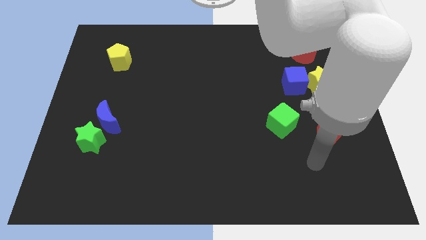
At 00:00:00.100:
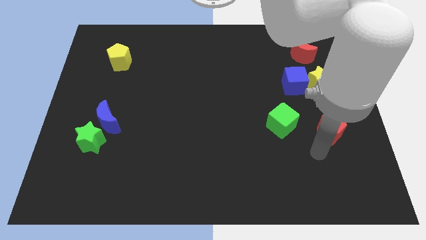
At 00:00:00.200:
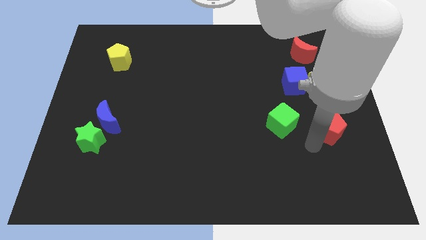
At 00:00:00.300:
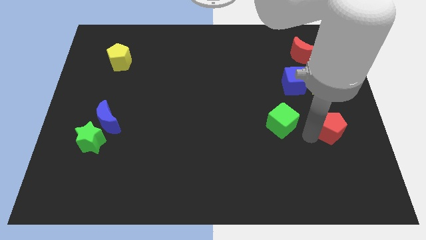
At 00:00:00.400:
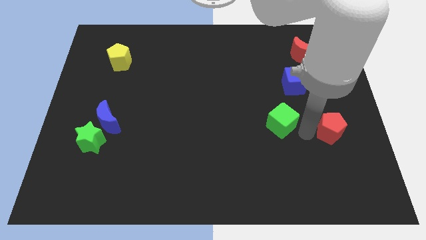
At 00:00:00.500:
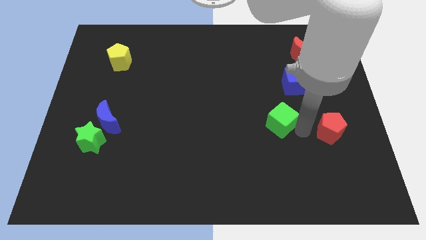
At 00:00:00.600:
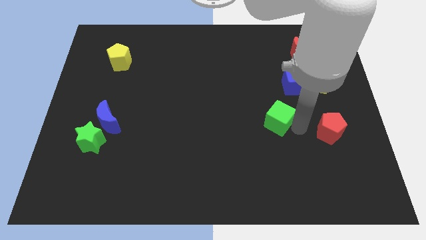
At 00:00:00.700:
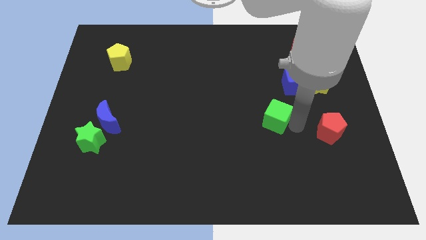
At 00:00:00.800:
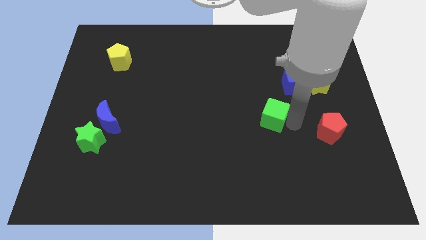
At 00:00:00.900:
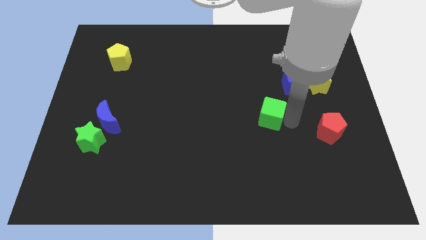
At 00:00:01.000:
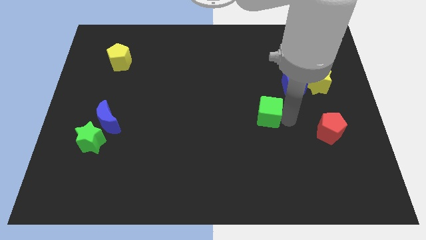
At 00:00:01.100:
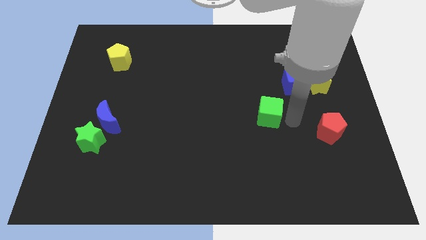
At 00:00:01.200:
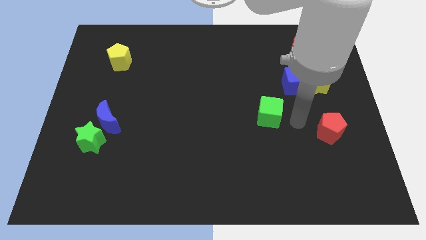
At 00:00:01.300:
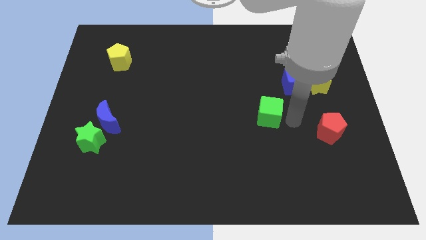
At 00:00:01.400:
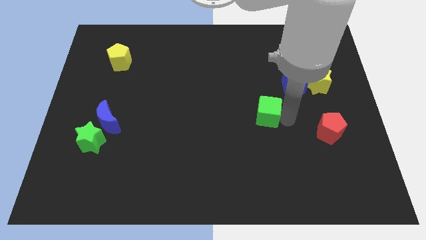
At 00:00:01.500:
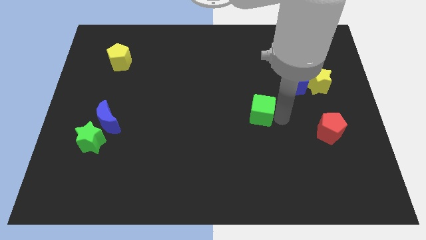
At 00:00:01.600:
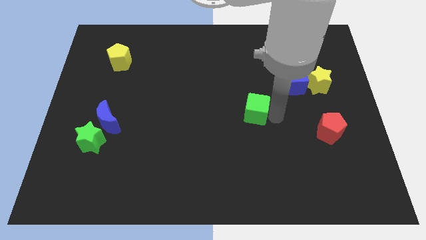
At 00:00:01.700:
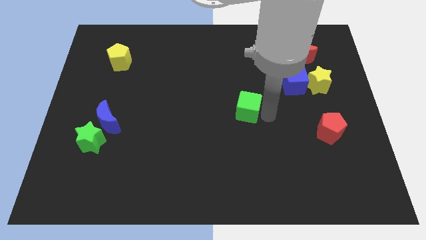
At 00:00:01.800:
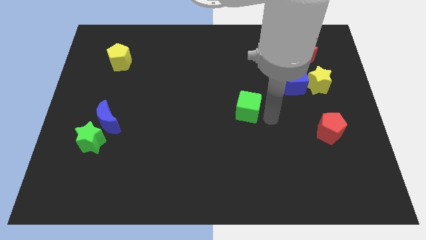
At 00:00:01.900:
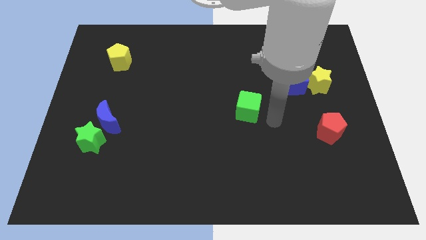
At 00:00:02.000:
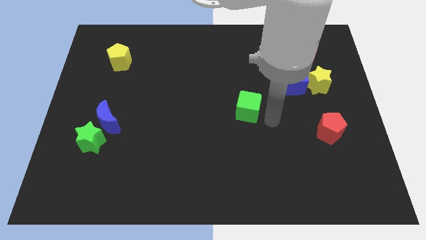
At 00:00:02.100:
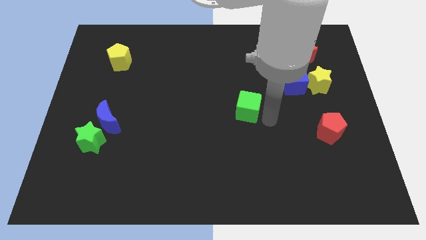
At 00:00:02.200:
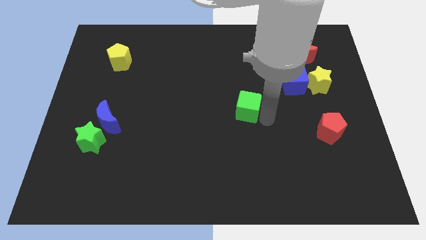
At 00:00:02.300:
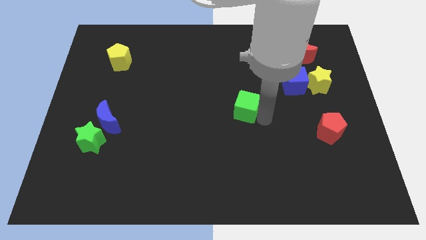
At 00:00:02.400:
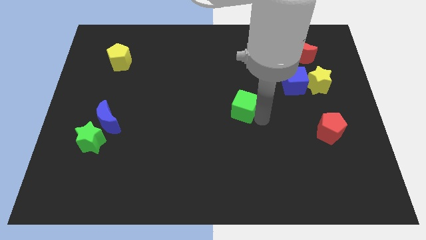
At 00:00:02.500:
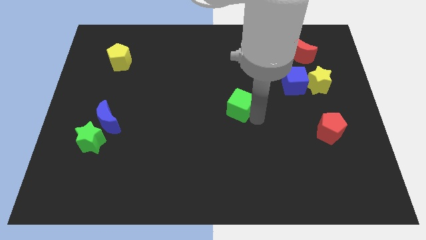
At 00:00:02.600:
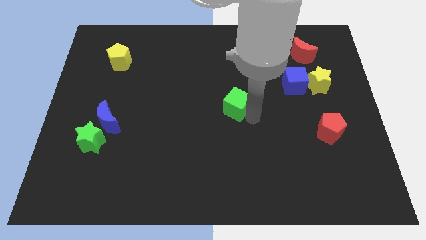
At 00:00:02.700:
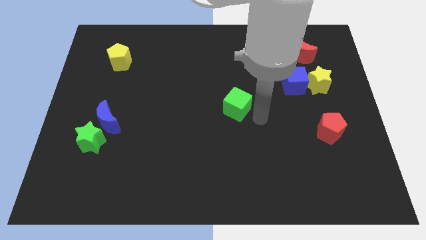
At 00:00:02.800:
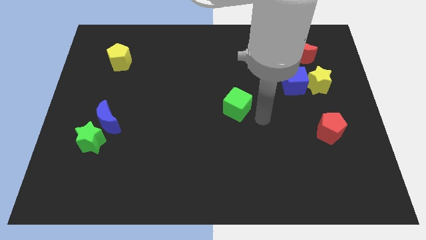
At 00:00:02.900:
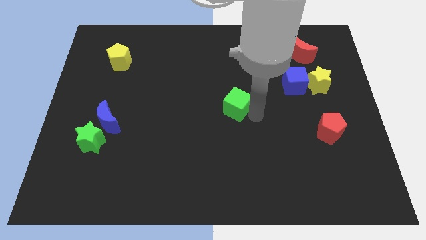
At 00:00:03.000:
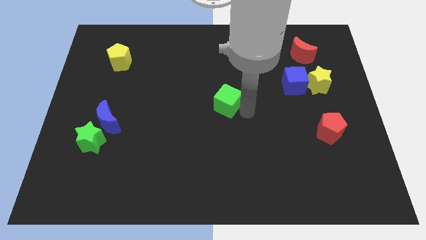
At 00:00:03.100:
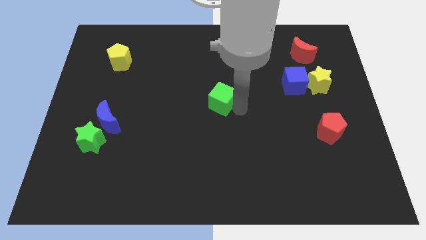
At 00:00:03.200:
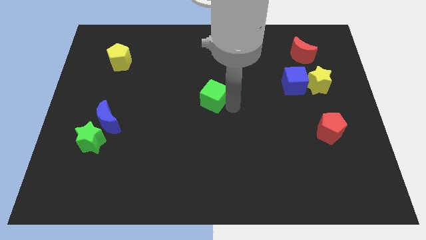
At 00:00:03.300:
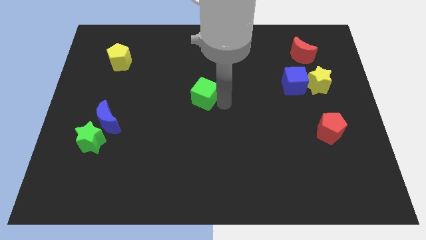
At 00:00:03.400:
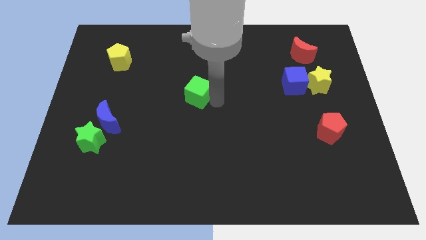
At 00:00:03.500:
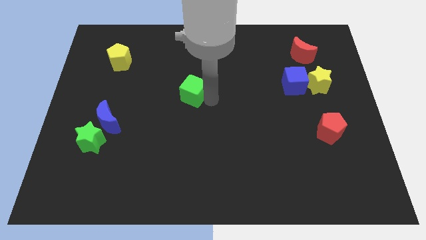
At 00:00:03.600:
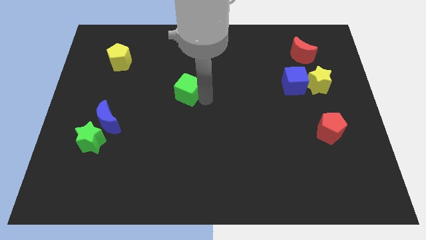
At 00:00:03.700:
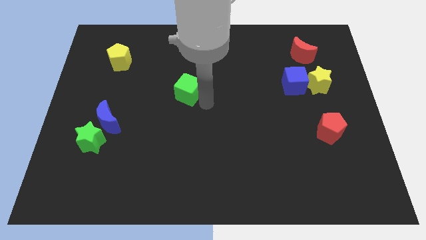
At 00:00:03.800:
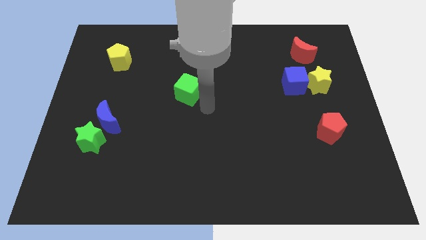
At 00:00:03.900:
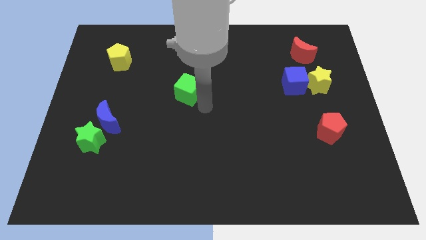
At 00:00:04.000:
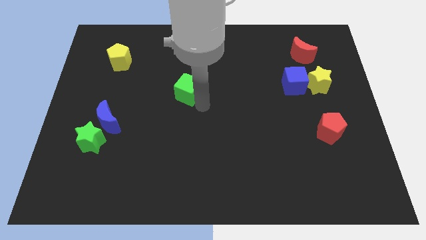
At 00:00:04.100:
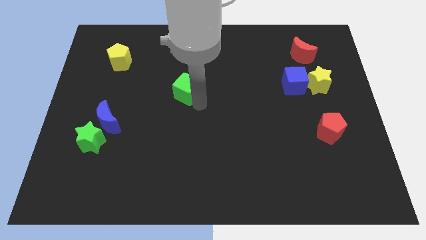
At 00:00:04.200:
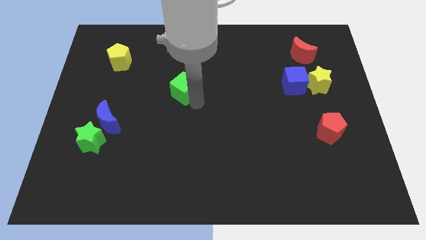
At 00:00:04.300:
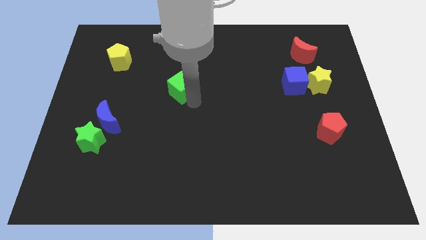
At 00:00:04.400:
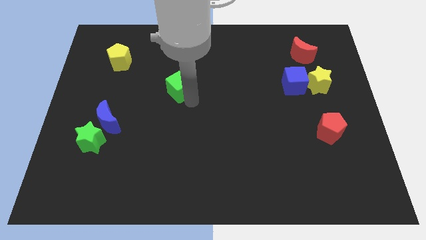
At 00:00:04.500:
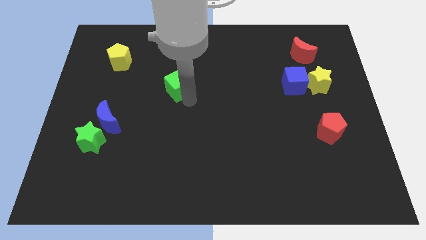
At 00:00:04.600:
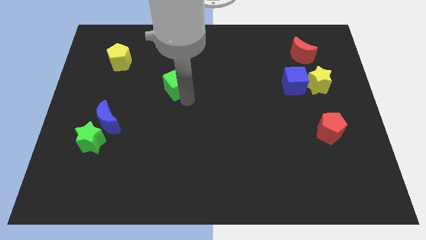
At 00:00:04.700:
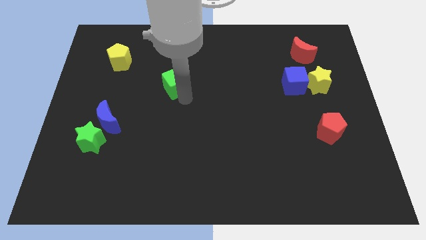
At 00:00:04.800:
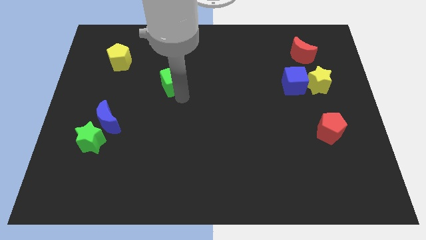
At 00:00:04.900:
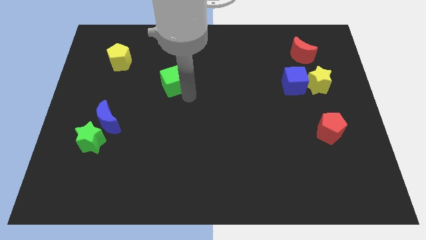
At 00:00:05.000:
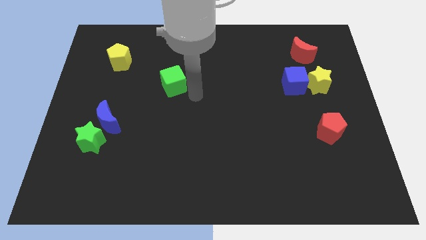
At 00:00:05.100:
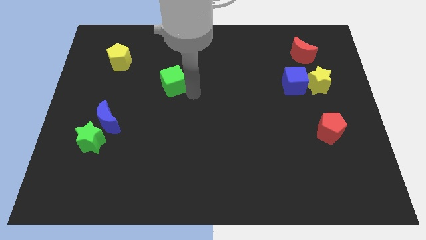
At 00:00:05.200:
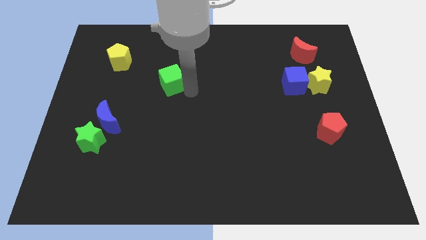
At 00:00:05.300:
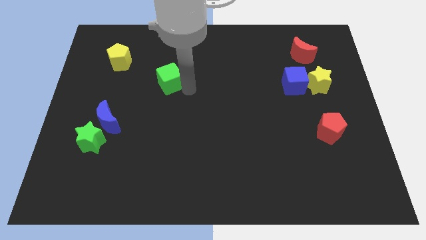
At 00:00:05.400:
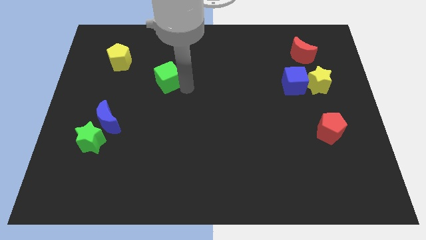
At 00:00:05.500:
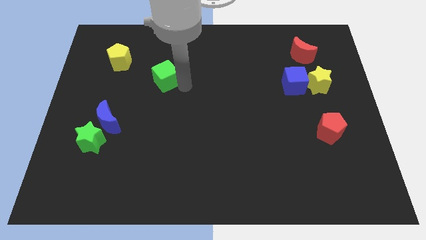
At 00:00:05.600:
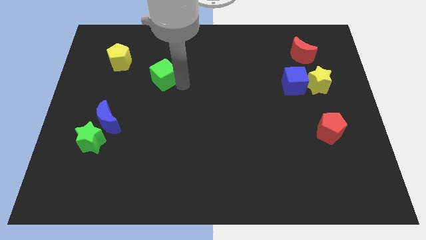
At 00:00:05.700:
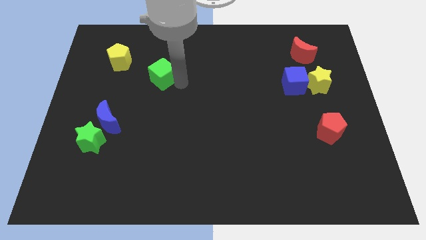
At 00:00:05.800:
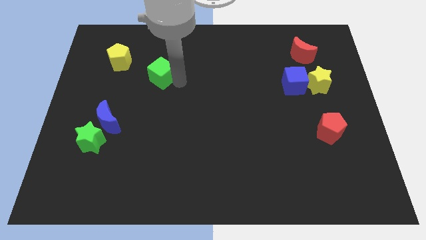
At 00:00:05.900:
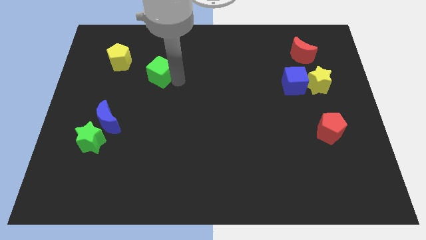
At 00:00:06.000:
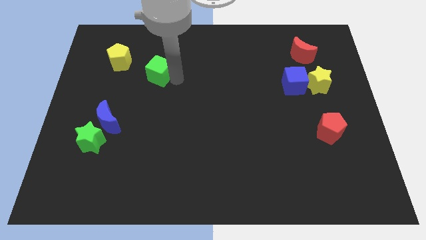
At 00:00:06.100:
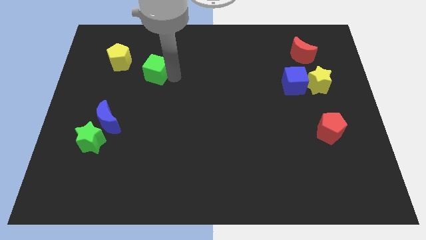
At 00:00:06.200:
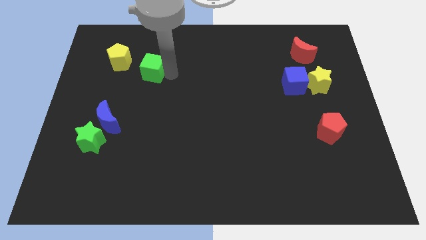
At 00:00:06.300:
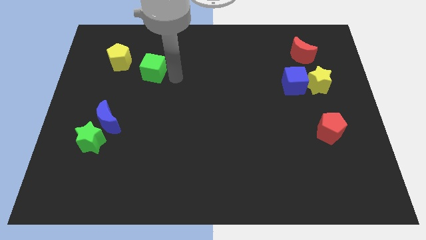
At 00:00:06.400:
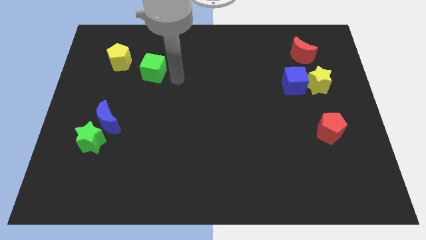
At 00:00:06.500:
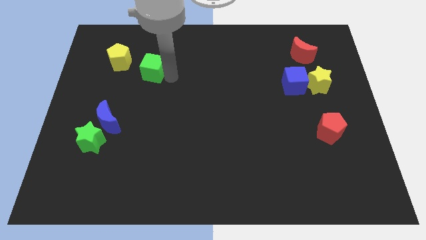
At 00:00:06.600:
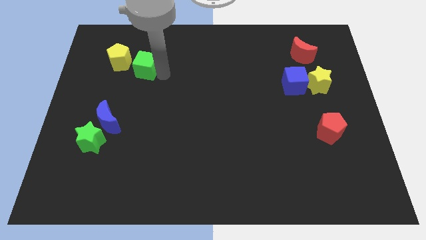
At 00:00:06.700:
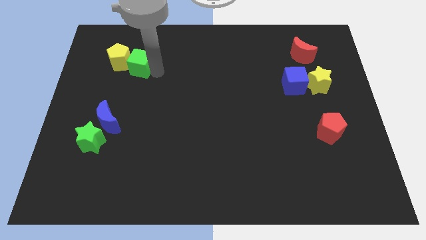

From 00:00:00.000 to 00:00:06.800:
put the green cube to the yellow pentagon

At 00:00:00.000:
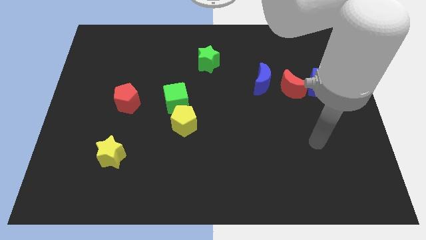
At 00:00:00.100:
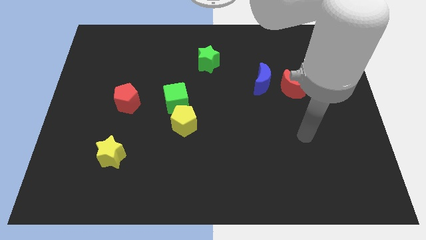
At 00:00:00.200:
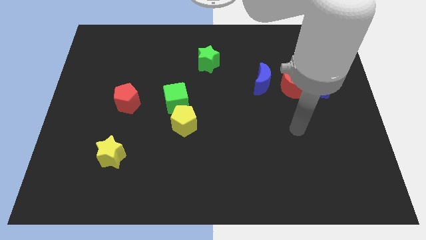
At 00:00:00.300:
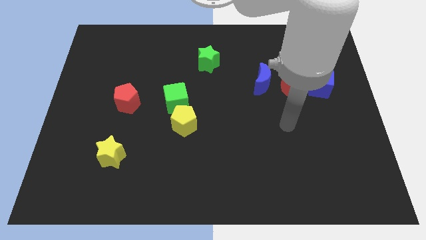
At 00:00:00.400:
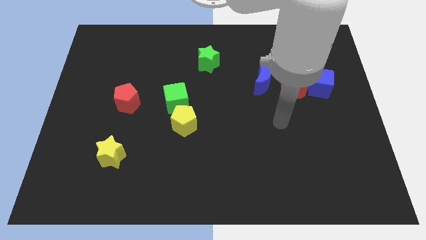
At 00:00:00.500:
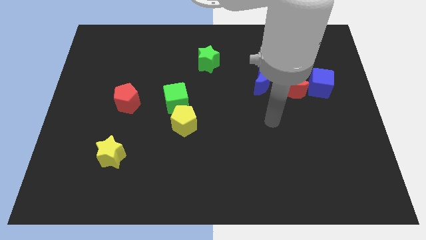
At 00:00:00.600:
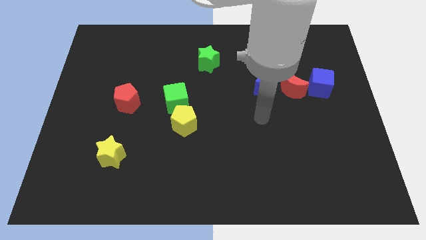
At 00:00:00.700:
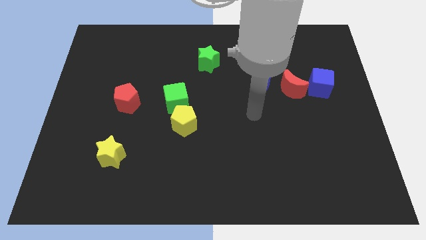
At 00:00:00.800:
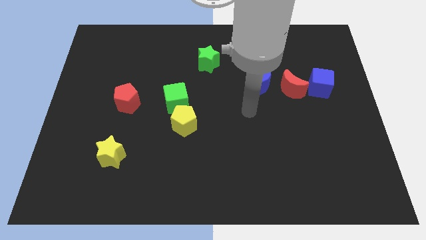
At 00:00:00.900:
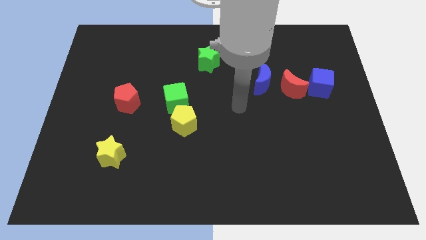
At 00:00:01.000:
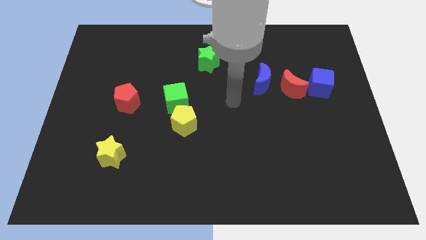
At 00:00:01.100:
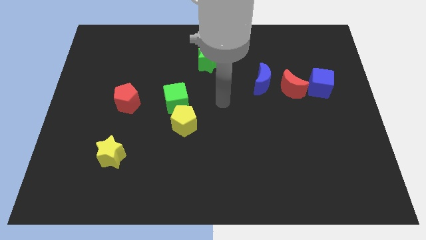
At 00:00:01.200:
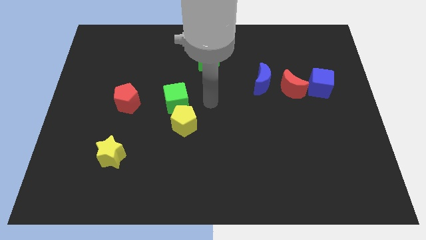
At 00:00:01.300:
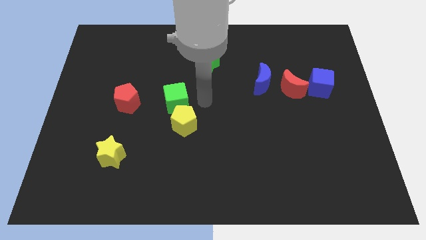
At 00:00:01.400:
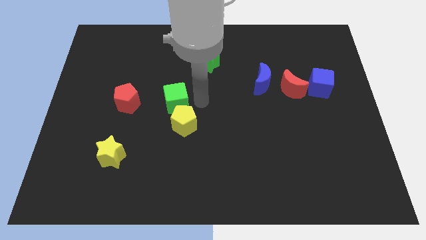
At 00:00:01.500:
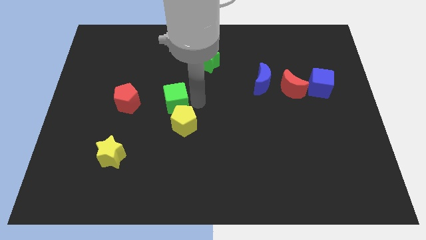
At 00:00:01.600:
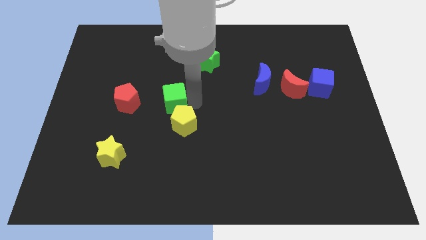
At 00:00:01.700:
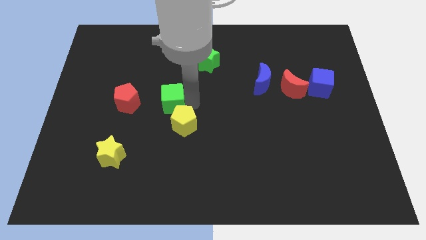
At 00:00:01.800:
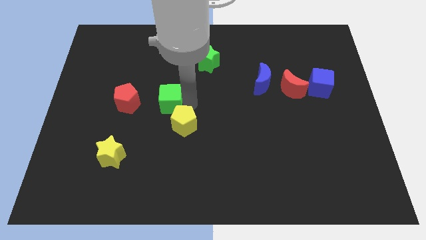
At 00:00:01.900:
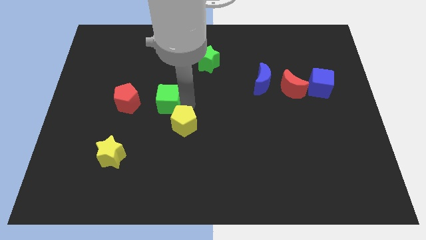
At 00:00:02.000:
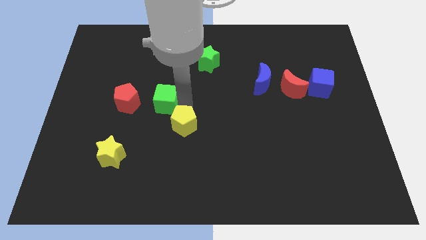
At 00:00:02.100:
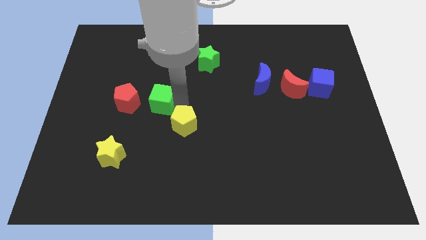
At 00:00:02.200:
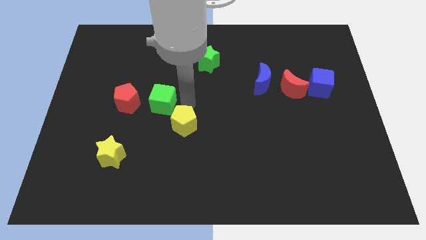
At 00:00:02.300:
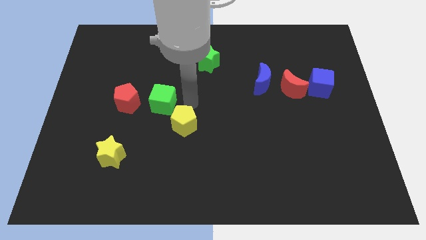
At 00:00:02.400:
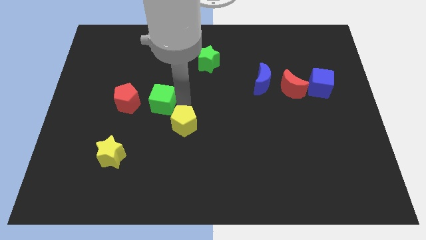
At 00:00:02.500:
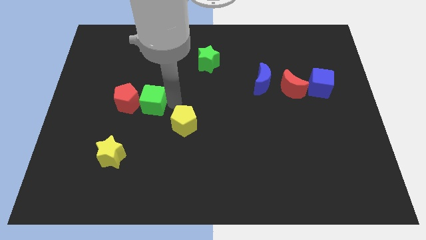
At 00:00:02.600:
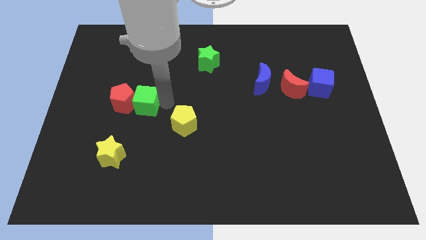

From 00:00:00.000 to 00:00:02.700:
put the green cube close to the red pentagon
